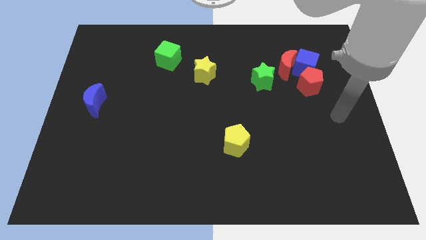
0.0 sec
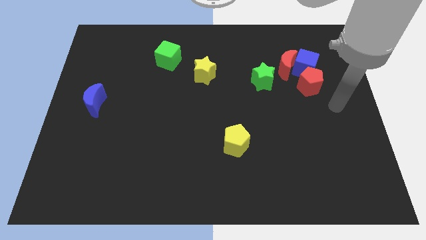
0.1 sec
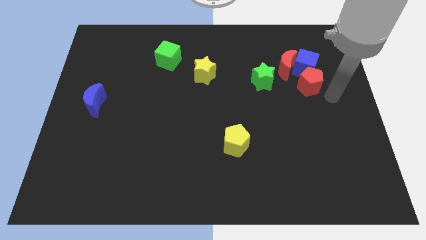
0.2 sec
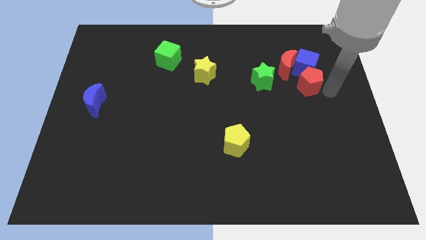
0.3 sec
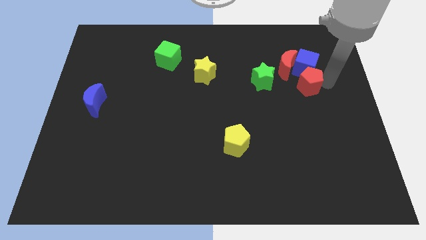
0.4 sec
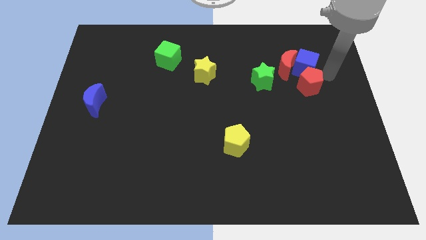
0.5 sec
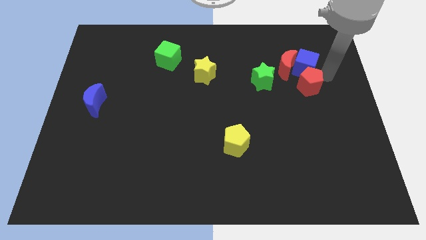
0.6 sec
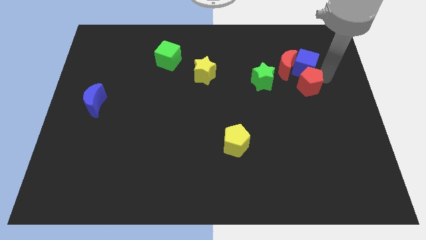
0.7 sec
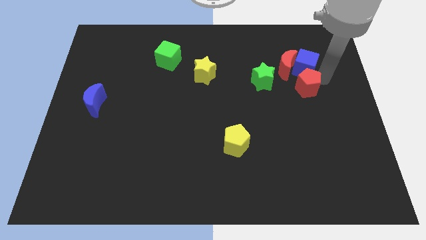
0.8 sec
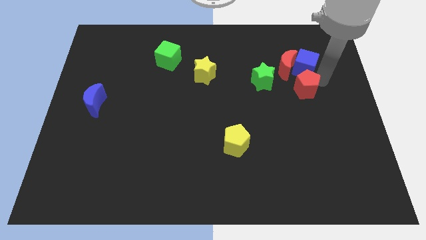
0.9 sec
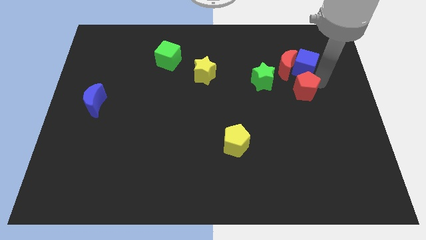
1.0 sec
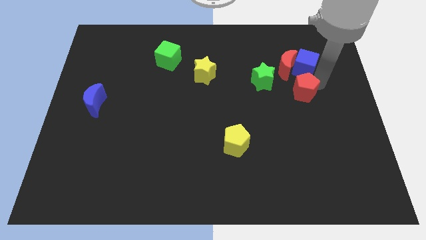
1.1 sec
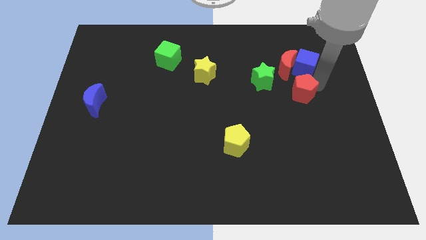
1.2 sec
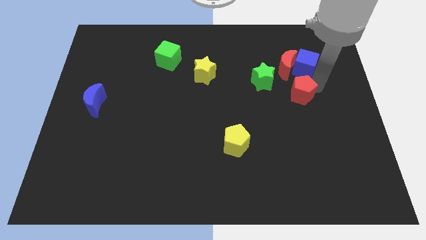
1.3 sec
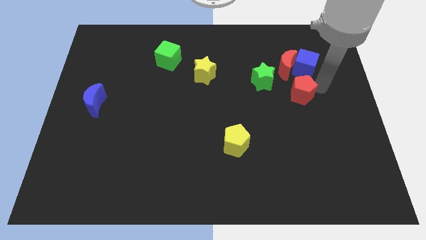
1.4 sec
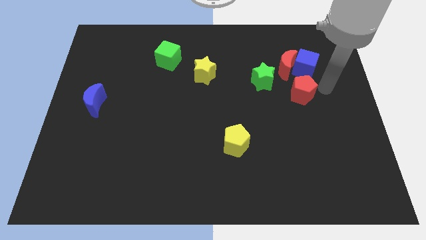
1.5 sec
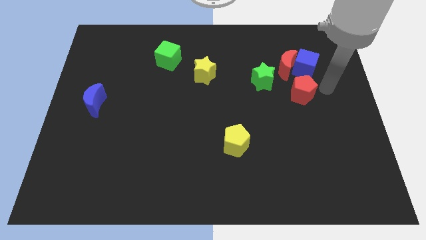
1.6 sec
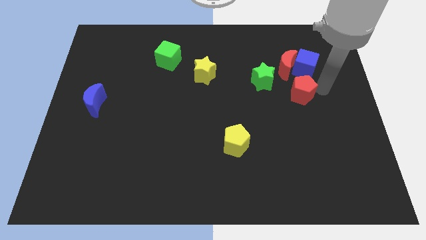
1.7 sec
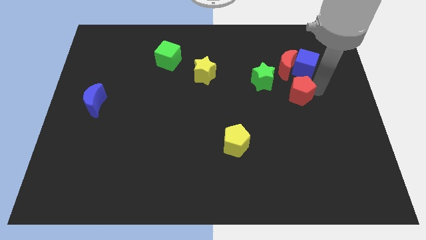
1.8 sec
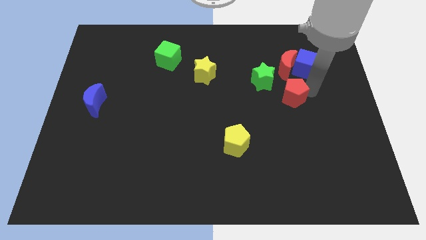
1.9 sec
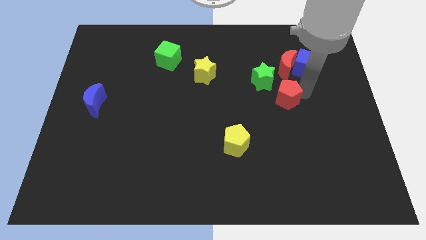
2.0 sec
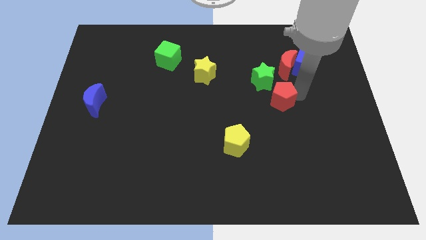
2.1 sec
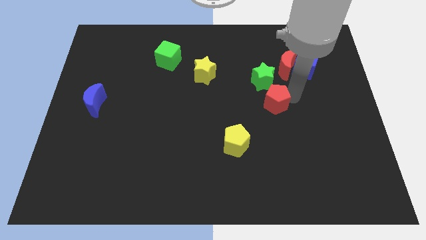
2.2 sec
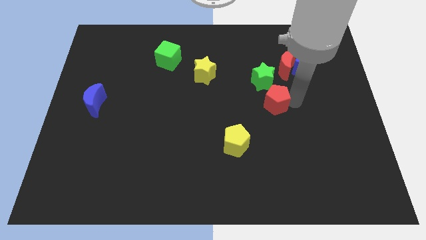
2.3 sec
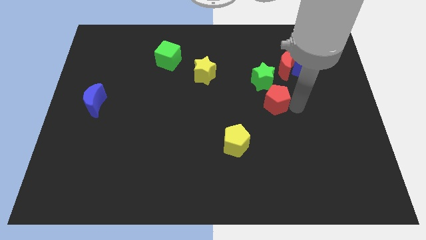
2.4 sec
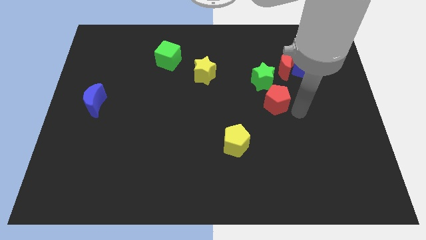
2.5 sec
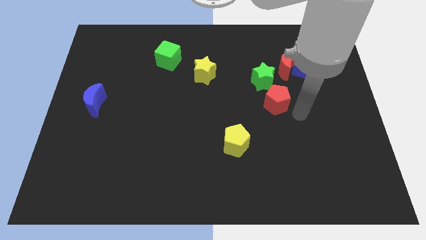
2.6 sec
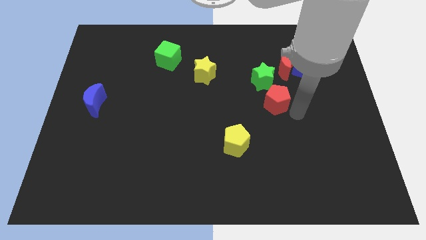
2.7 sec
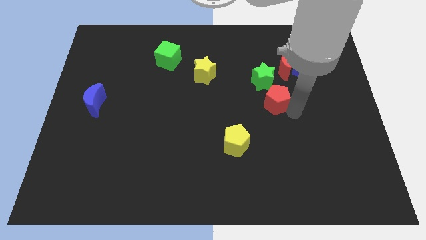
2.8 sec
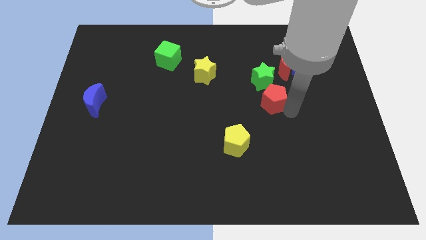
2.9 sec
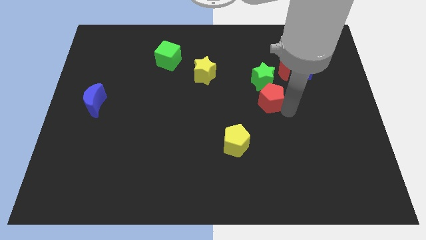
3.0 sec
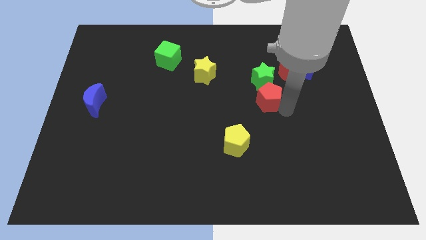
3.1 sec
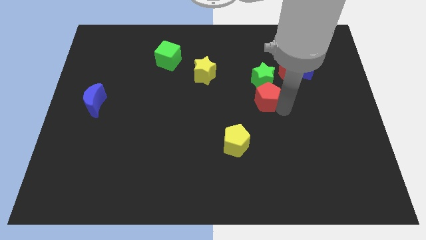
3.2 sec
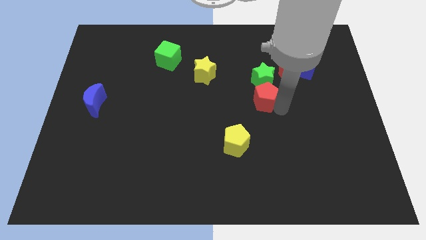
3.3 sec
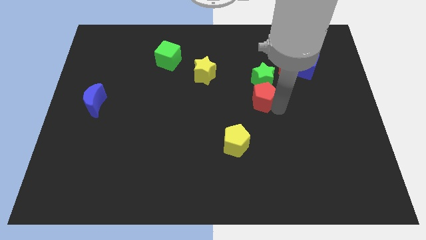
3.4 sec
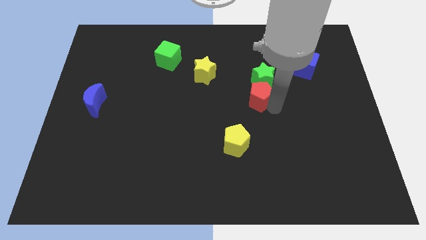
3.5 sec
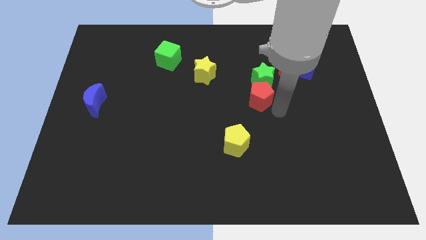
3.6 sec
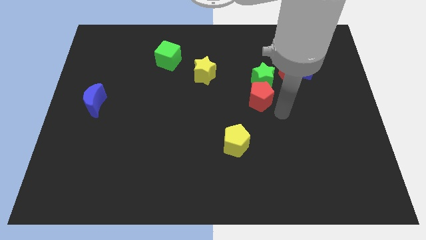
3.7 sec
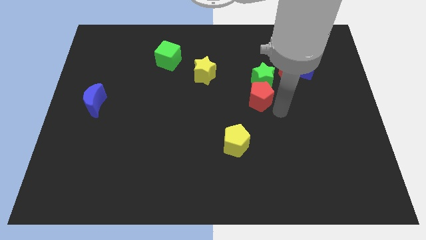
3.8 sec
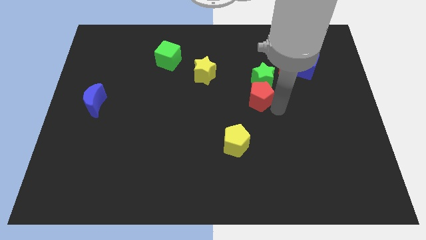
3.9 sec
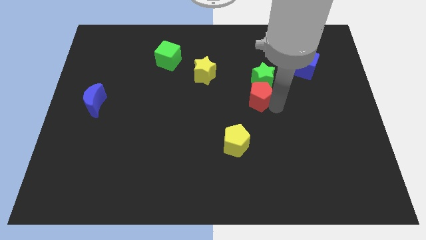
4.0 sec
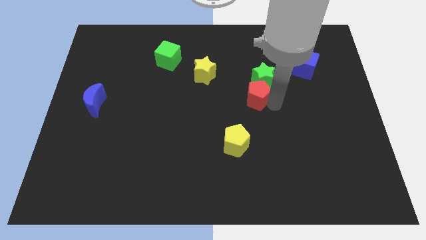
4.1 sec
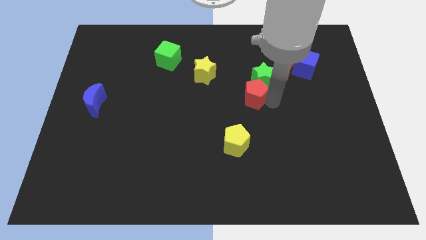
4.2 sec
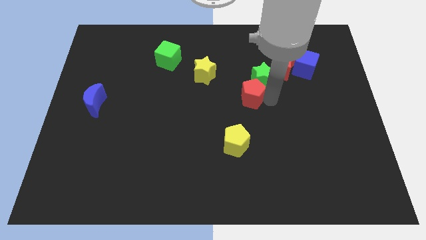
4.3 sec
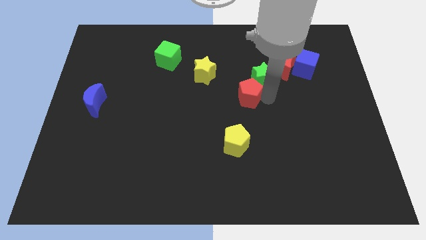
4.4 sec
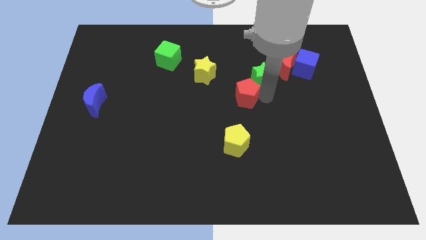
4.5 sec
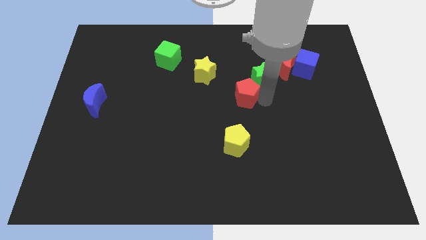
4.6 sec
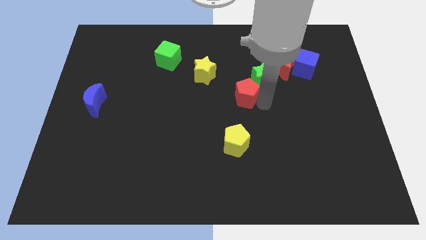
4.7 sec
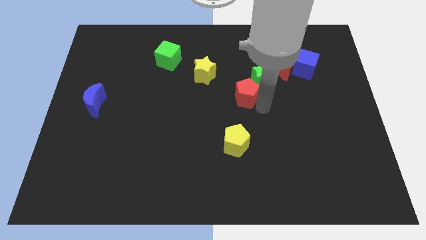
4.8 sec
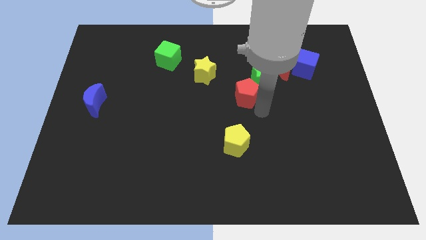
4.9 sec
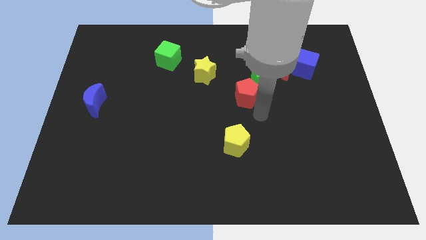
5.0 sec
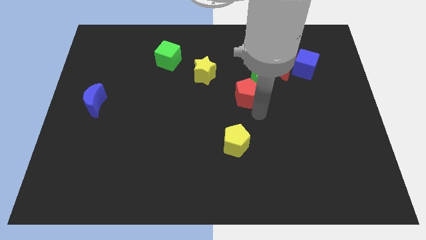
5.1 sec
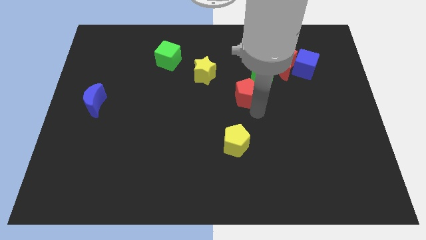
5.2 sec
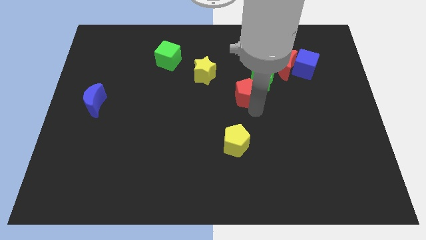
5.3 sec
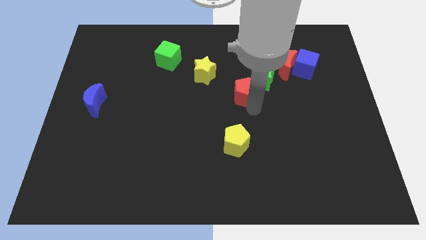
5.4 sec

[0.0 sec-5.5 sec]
push the red pentagon to the left side of the green star
